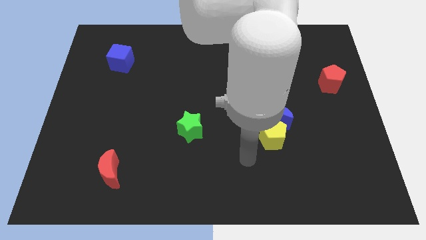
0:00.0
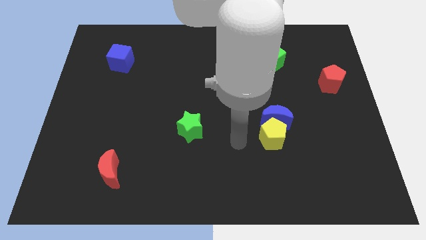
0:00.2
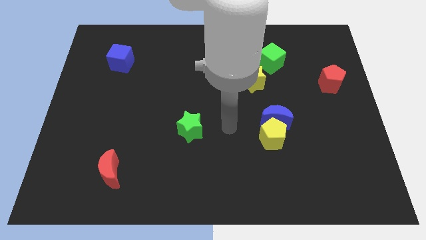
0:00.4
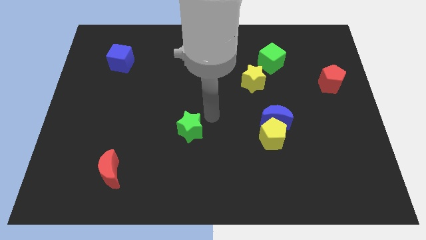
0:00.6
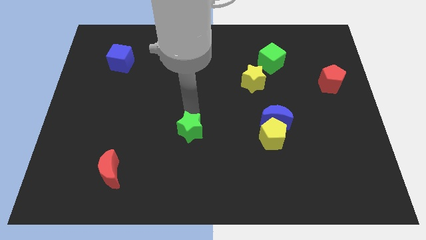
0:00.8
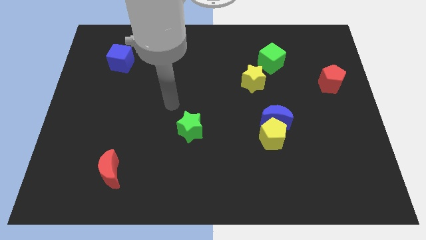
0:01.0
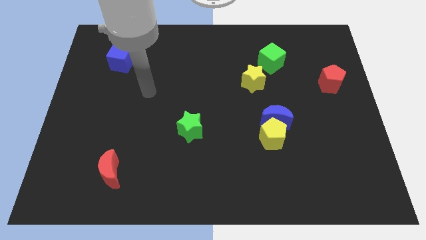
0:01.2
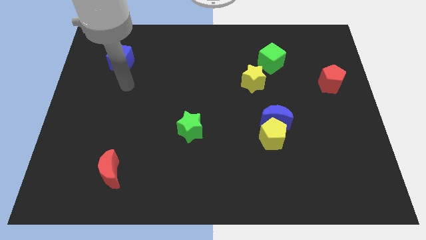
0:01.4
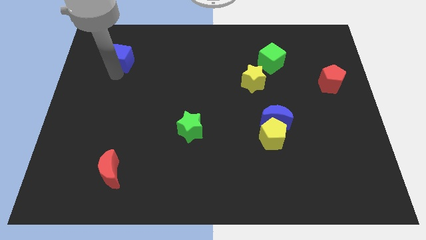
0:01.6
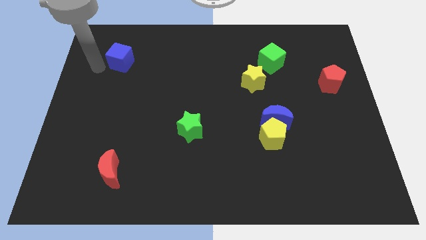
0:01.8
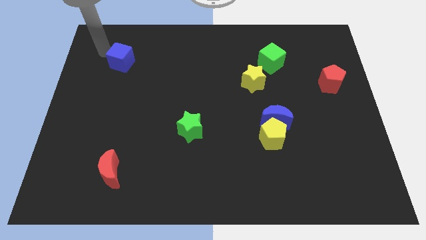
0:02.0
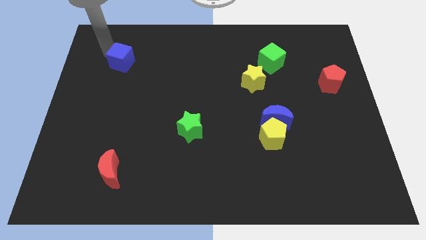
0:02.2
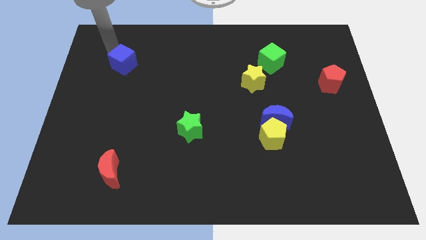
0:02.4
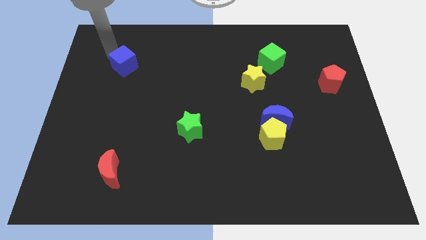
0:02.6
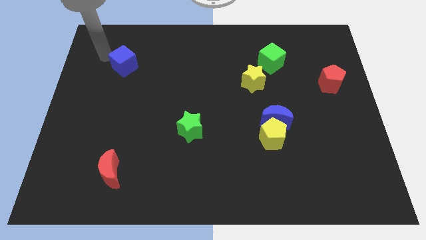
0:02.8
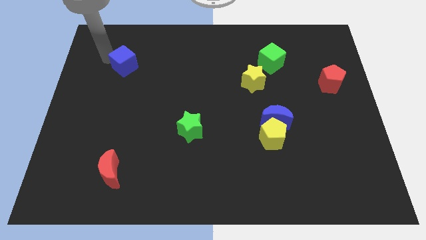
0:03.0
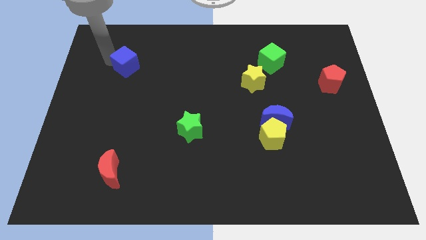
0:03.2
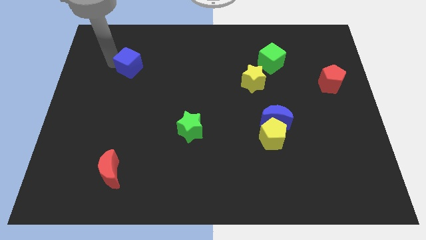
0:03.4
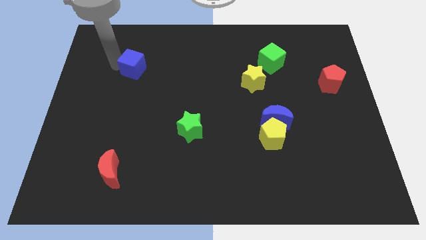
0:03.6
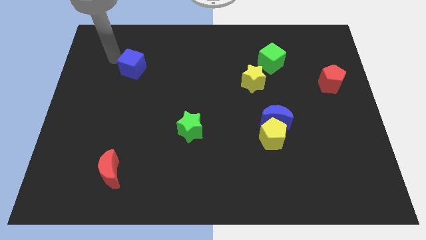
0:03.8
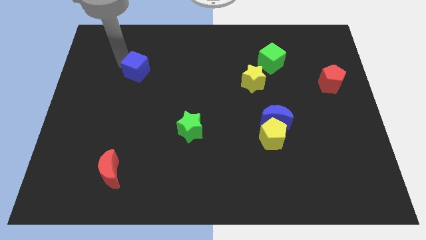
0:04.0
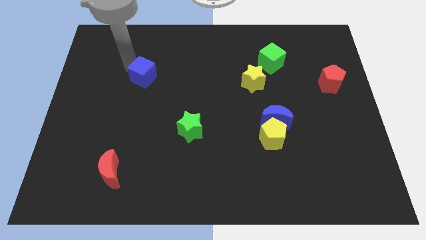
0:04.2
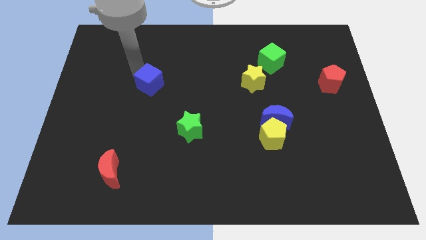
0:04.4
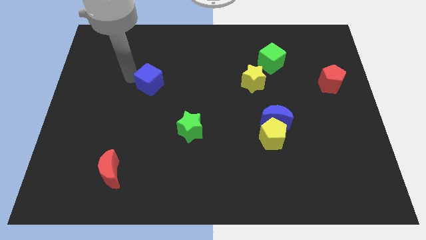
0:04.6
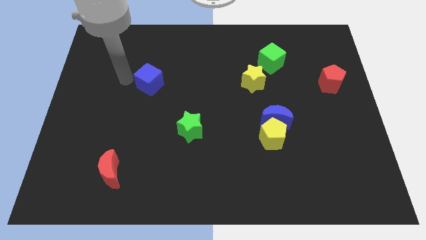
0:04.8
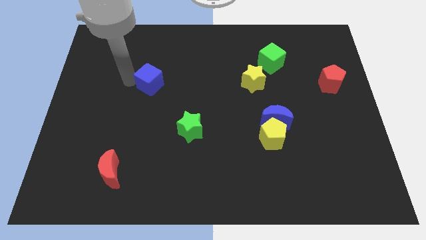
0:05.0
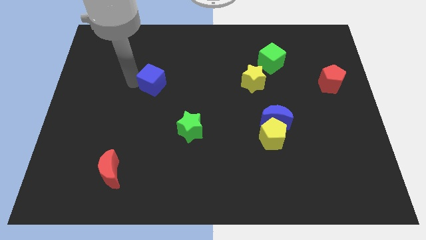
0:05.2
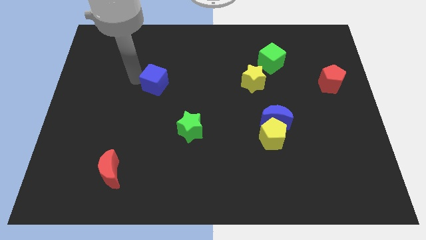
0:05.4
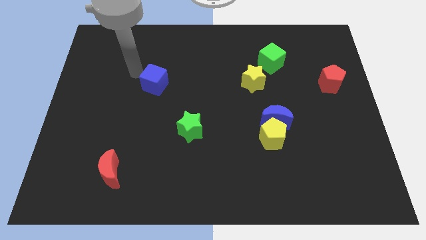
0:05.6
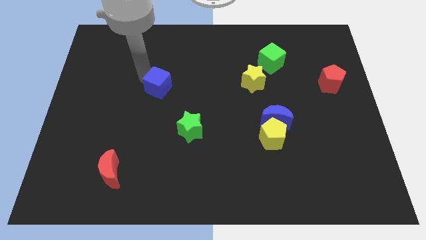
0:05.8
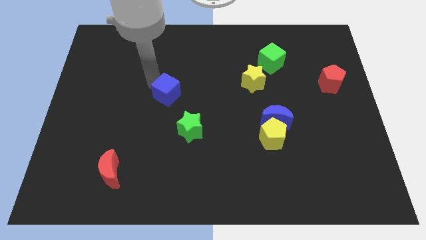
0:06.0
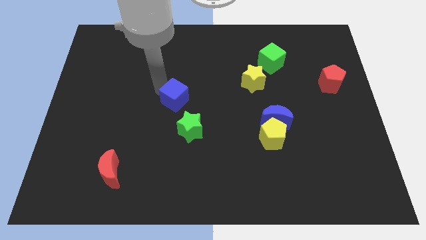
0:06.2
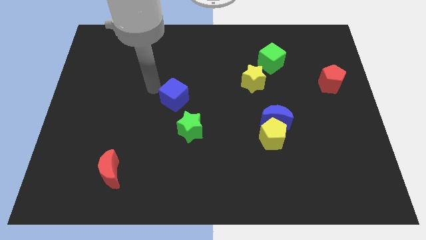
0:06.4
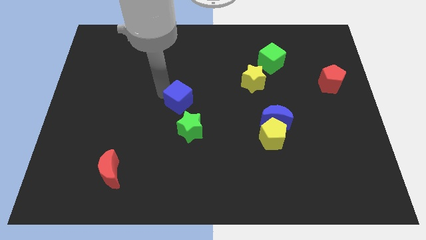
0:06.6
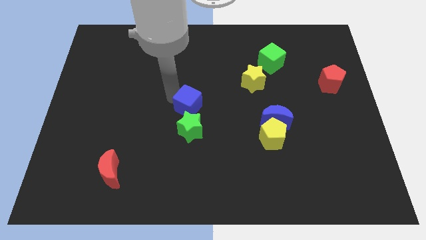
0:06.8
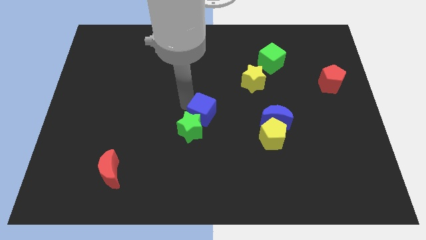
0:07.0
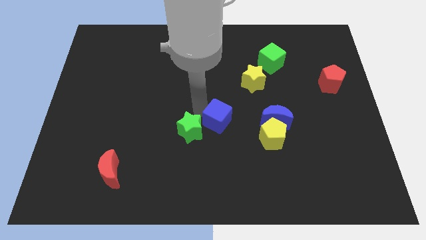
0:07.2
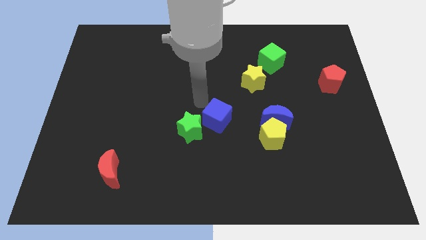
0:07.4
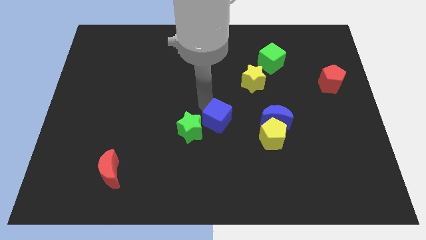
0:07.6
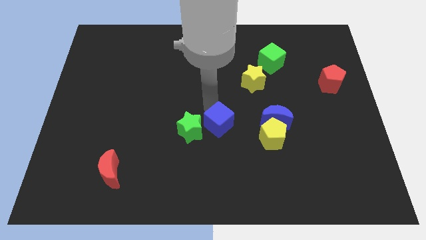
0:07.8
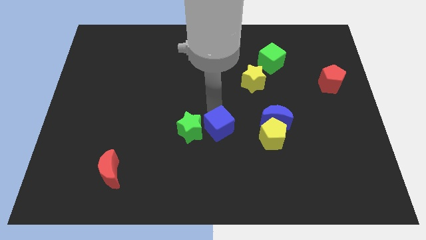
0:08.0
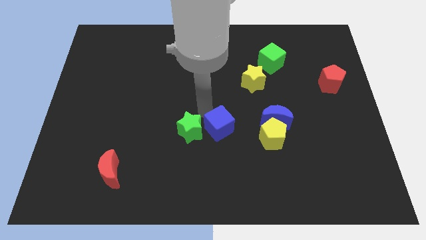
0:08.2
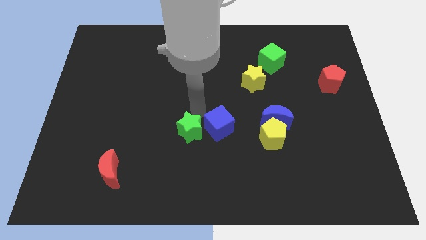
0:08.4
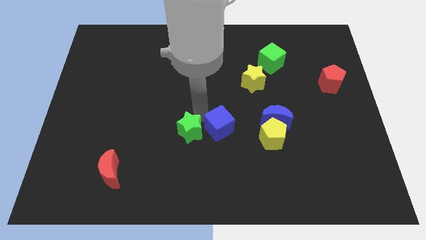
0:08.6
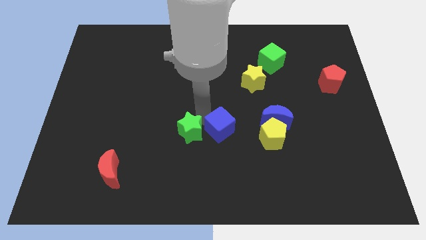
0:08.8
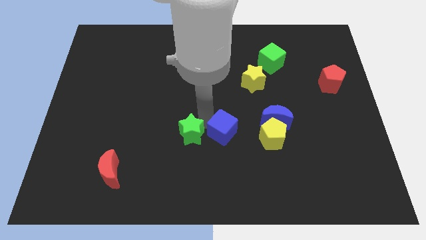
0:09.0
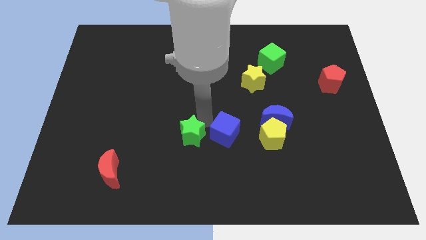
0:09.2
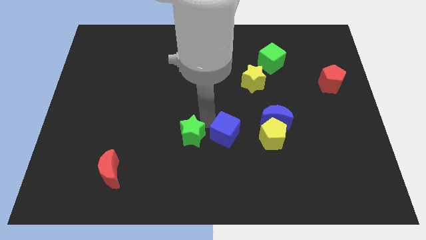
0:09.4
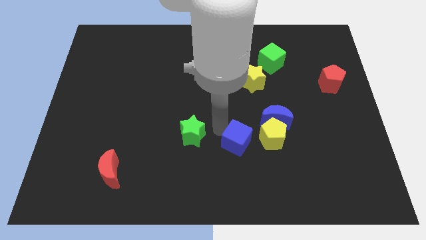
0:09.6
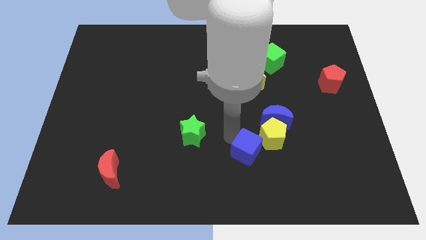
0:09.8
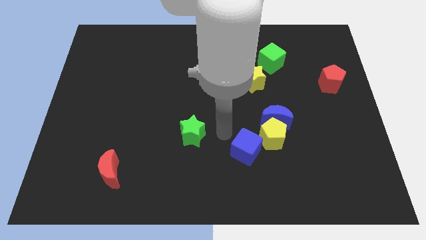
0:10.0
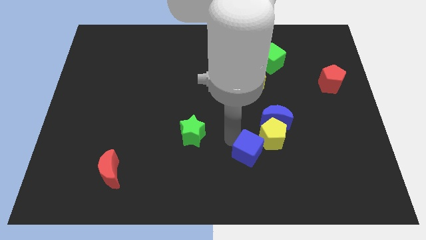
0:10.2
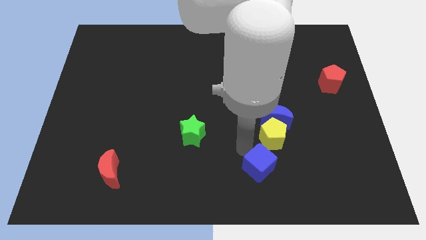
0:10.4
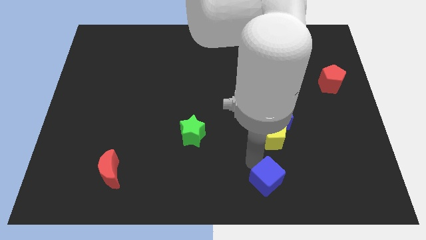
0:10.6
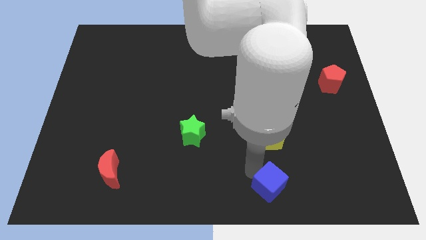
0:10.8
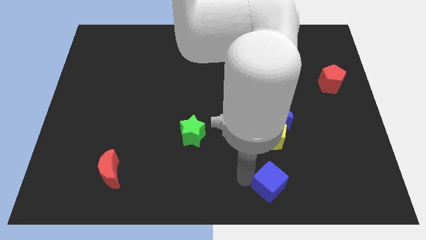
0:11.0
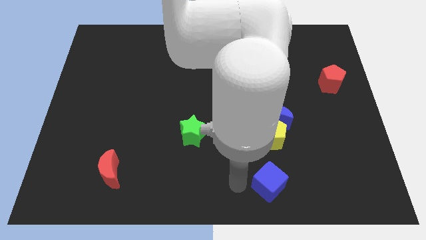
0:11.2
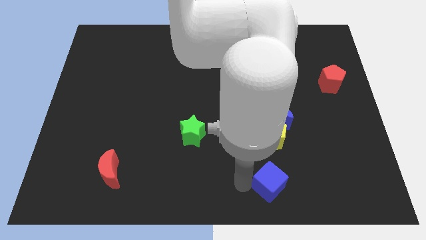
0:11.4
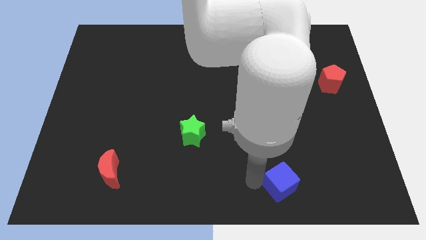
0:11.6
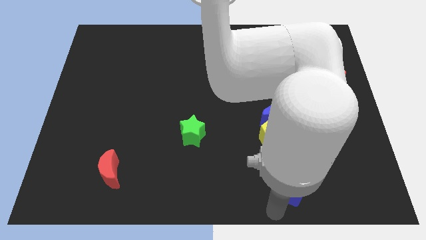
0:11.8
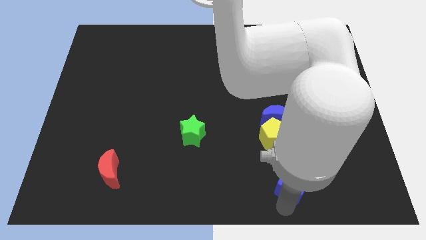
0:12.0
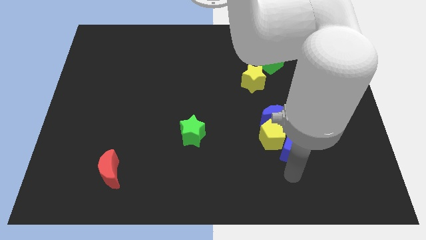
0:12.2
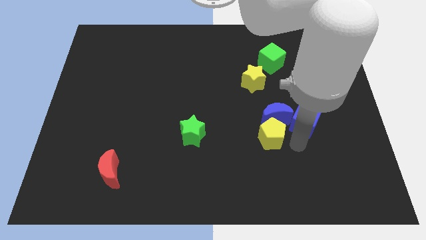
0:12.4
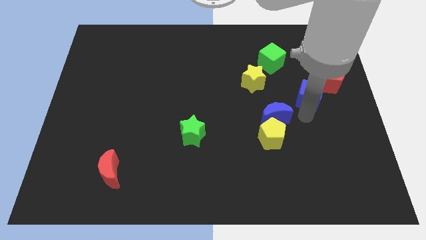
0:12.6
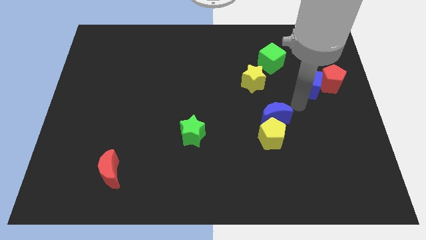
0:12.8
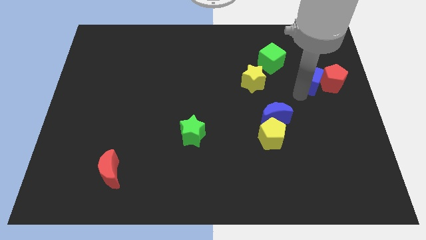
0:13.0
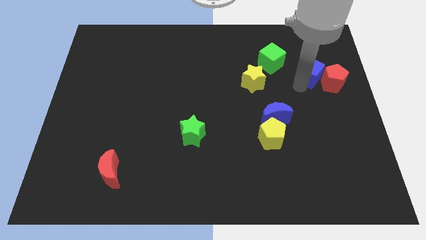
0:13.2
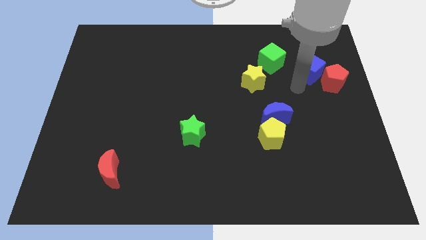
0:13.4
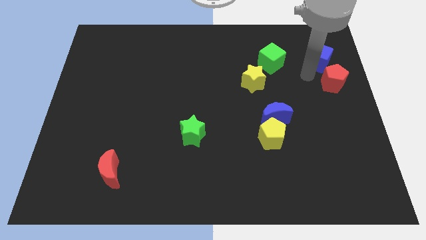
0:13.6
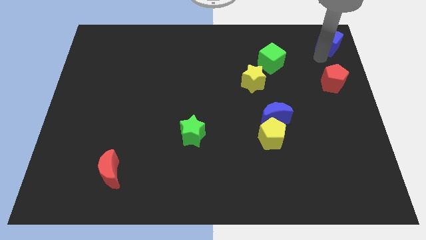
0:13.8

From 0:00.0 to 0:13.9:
move the blue cube to the upper right corner

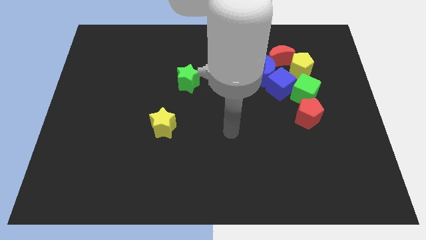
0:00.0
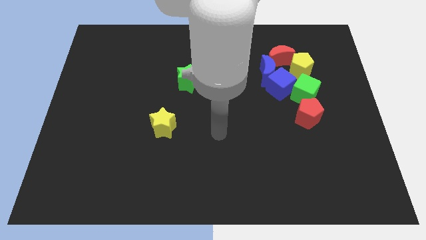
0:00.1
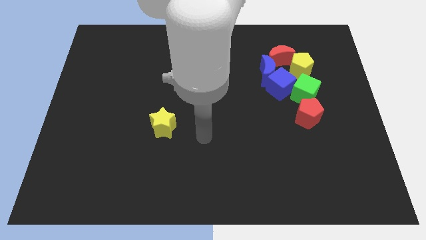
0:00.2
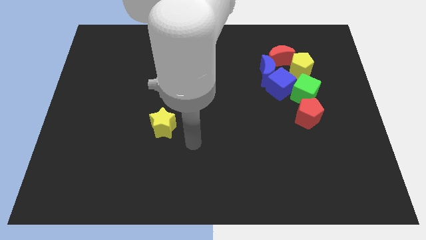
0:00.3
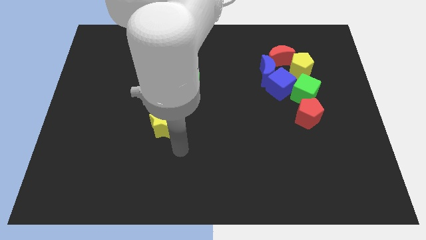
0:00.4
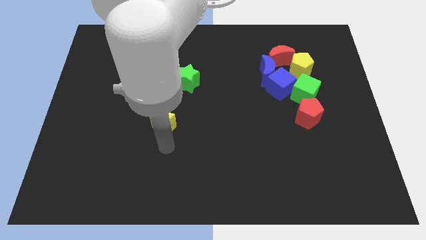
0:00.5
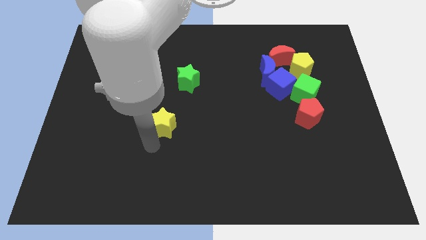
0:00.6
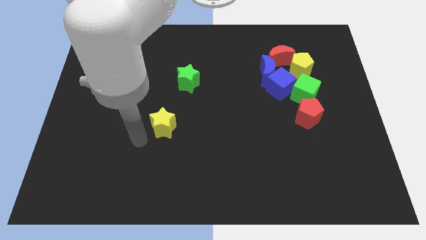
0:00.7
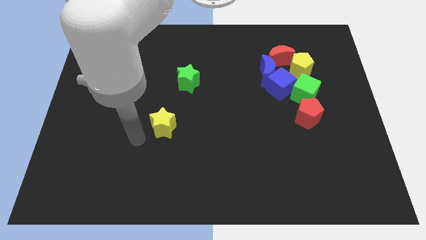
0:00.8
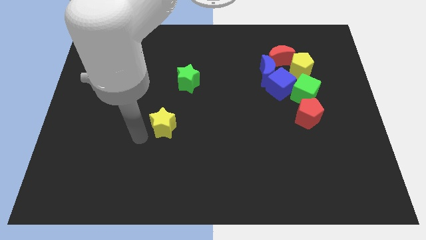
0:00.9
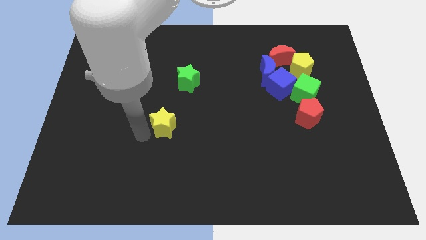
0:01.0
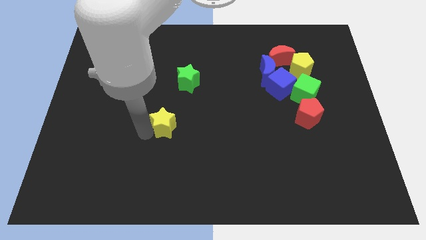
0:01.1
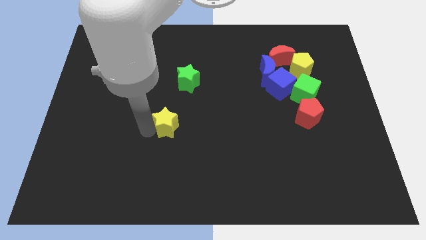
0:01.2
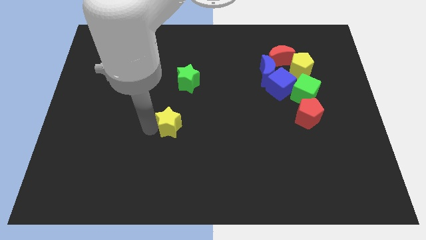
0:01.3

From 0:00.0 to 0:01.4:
slide the yellow star to the middle
